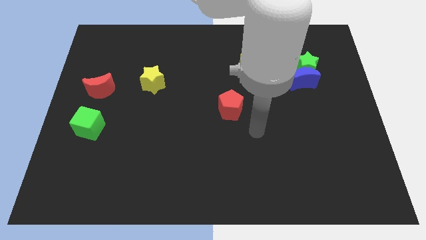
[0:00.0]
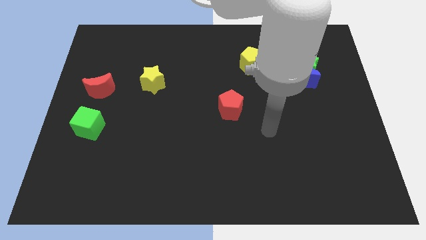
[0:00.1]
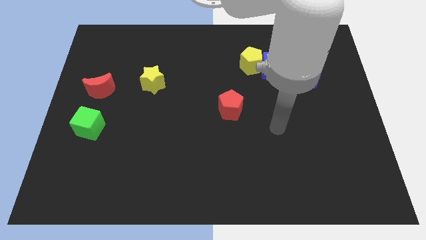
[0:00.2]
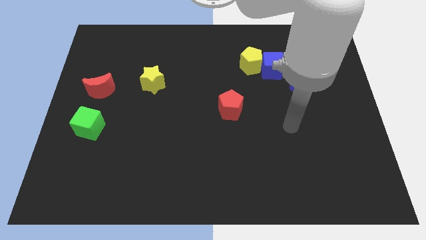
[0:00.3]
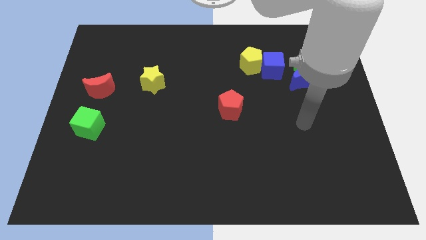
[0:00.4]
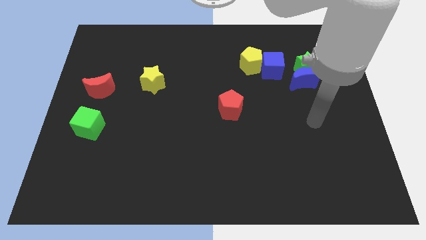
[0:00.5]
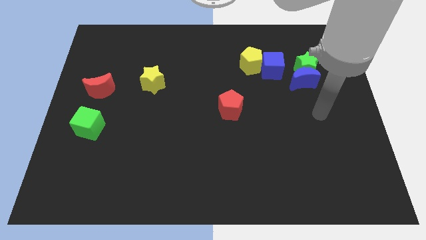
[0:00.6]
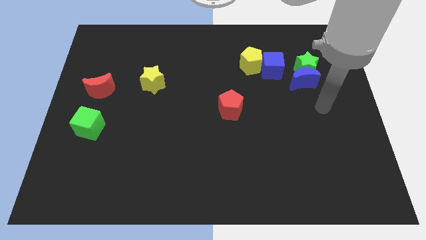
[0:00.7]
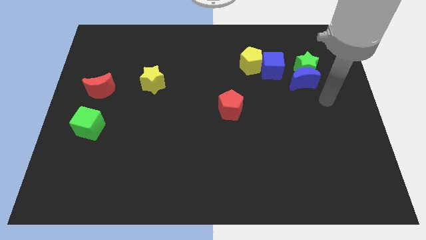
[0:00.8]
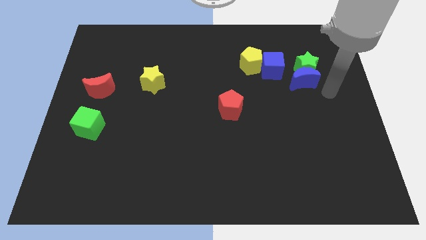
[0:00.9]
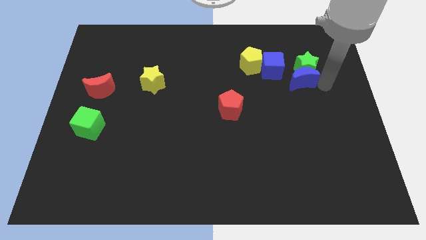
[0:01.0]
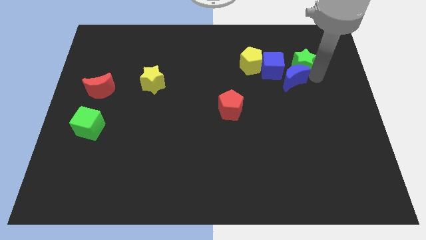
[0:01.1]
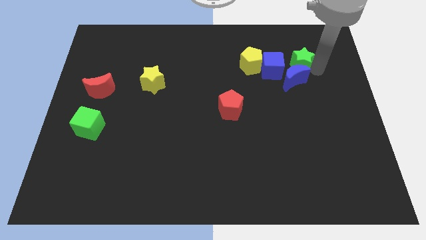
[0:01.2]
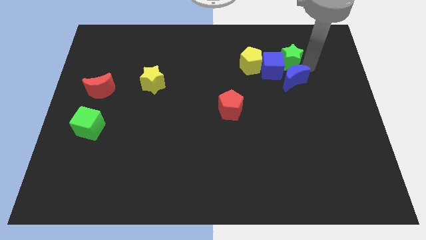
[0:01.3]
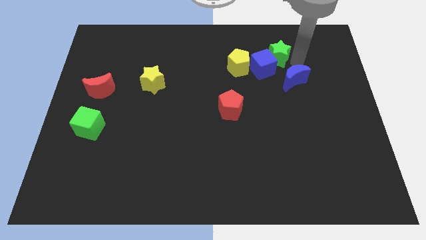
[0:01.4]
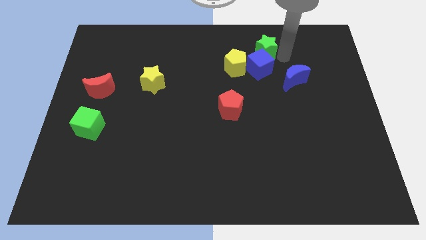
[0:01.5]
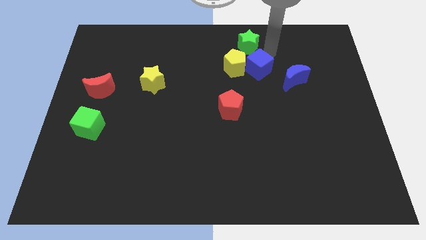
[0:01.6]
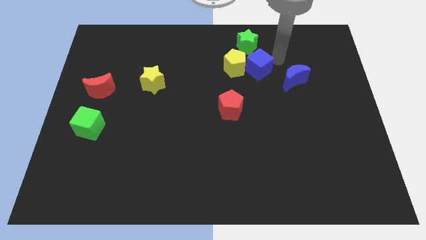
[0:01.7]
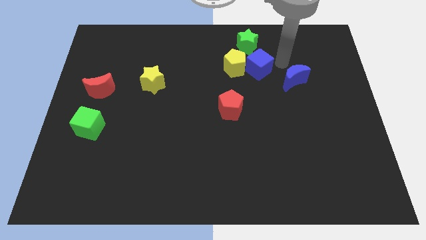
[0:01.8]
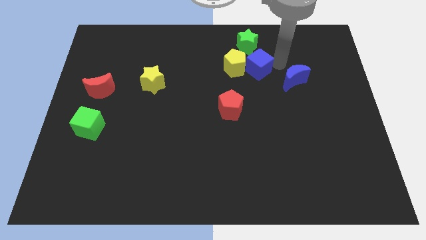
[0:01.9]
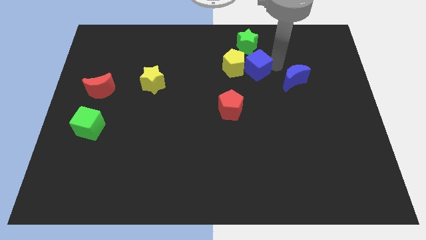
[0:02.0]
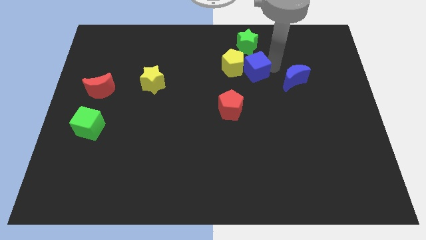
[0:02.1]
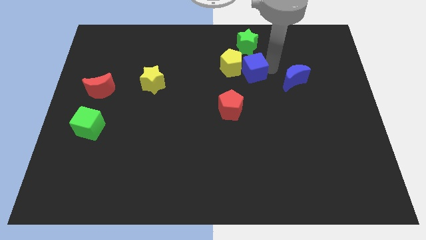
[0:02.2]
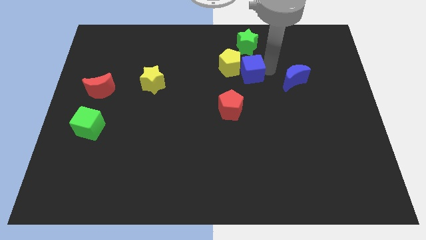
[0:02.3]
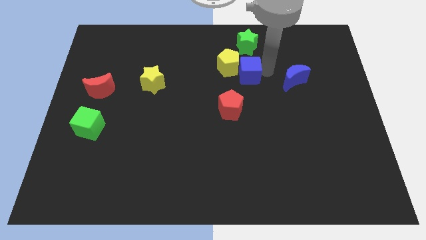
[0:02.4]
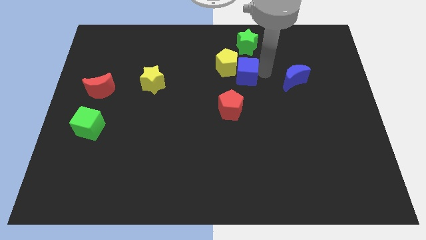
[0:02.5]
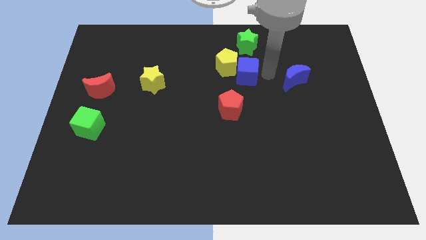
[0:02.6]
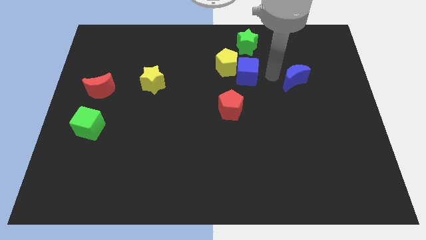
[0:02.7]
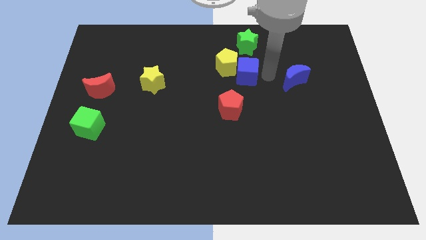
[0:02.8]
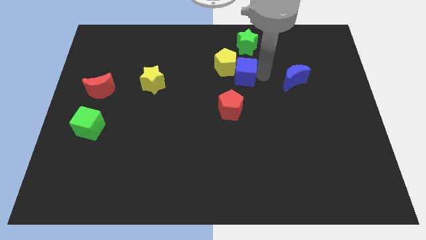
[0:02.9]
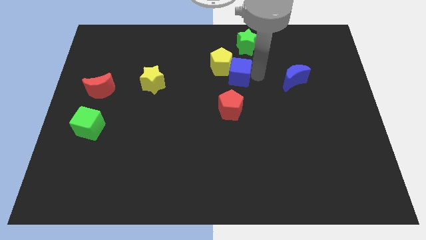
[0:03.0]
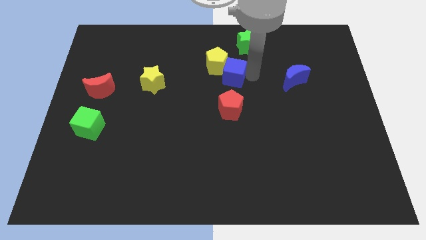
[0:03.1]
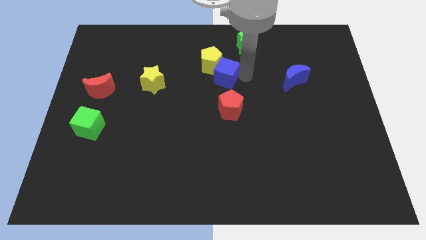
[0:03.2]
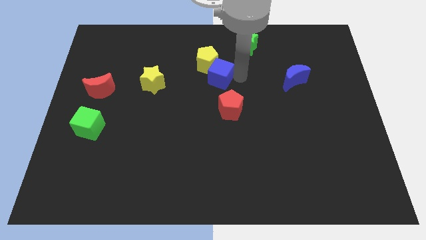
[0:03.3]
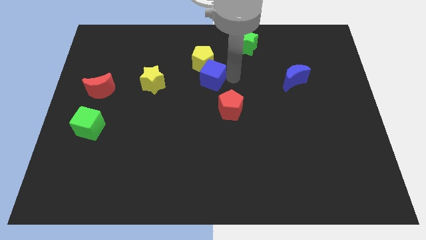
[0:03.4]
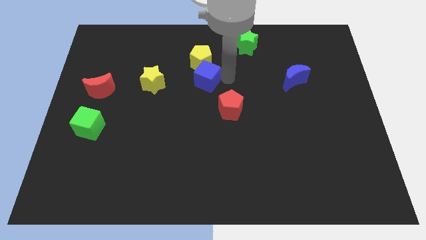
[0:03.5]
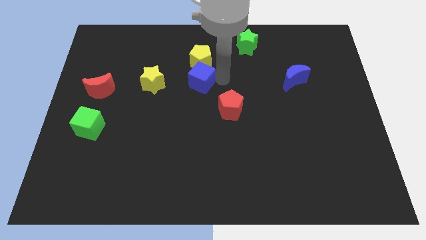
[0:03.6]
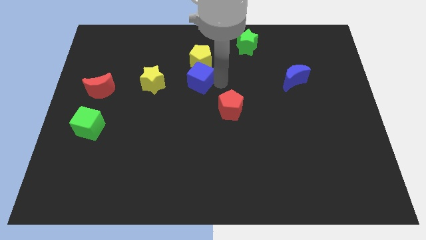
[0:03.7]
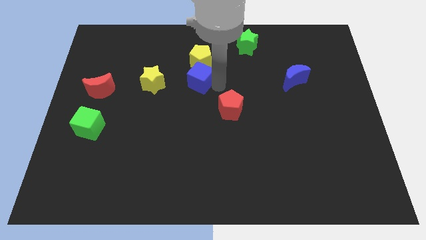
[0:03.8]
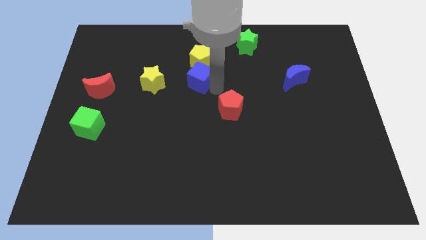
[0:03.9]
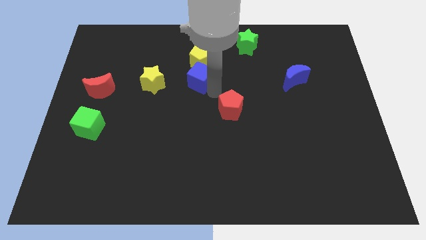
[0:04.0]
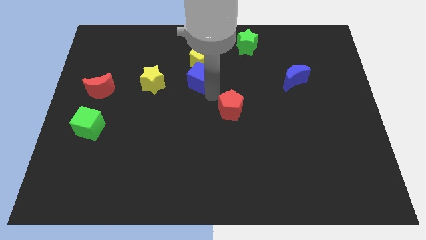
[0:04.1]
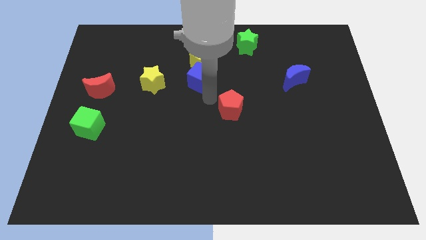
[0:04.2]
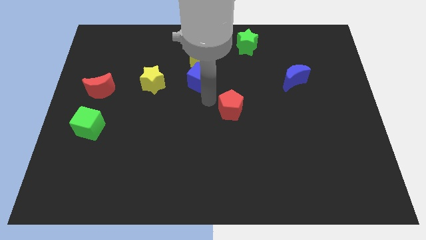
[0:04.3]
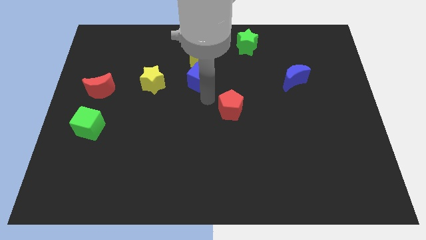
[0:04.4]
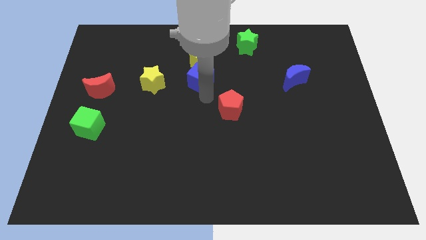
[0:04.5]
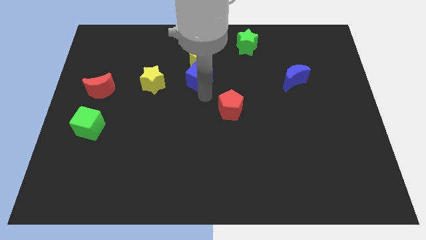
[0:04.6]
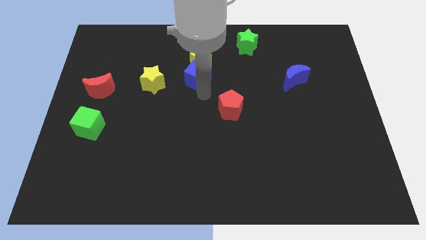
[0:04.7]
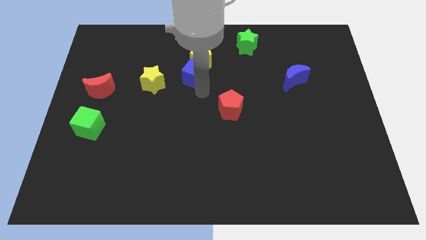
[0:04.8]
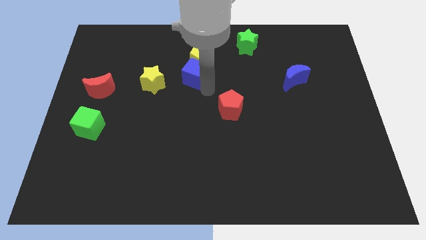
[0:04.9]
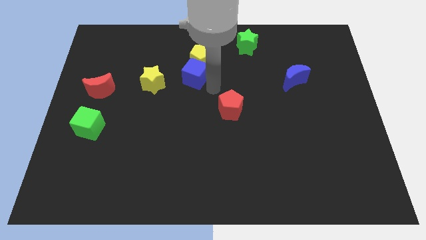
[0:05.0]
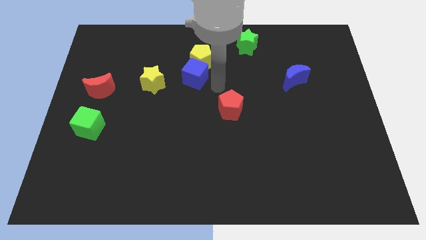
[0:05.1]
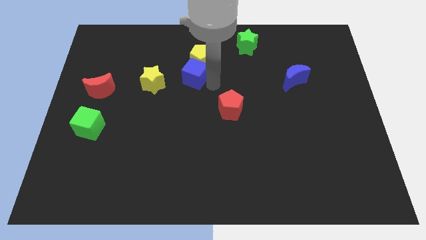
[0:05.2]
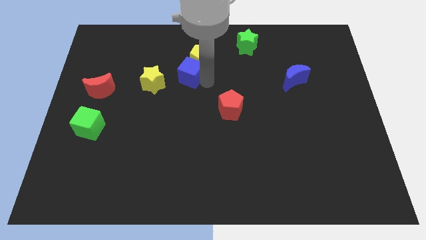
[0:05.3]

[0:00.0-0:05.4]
put the blue cube to the top right side of the yellow star

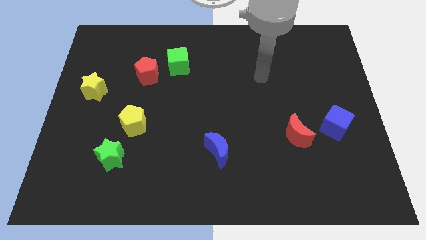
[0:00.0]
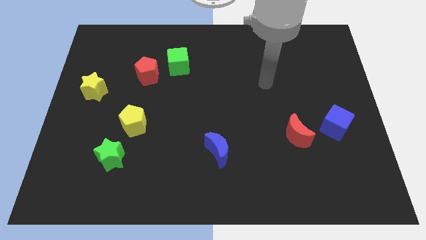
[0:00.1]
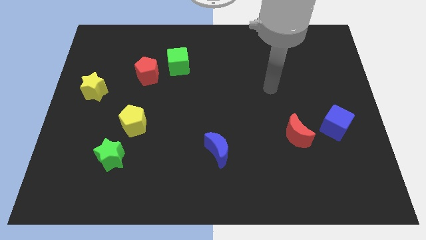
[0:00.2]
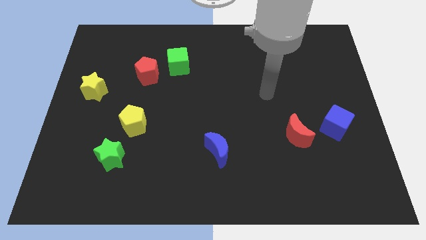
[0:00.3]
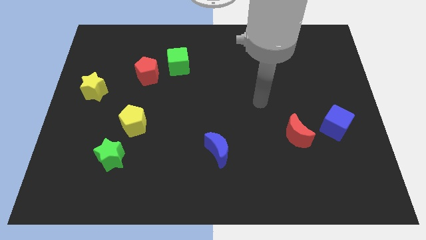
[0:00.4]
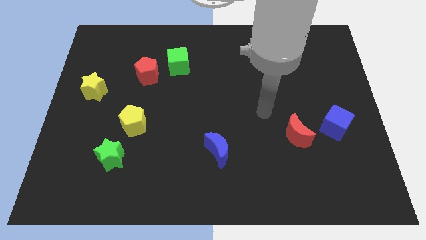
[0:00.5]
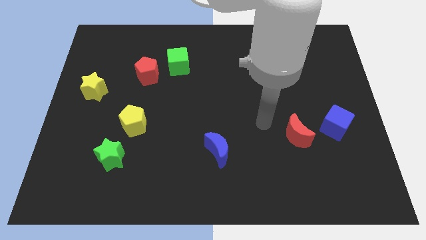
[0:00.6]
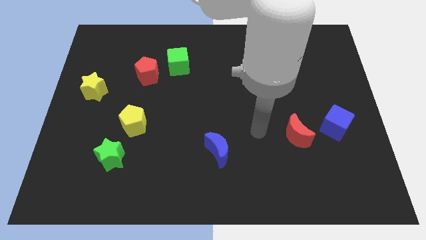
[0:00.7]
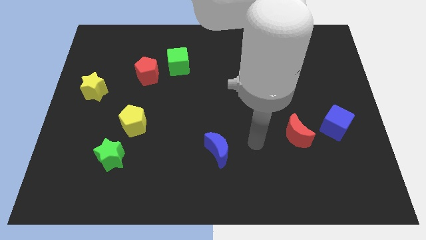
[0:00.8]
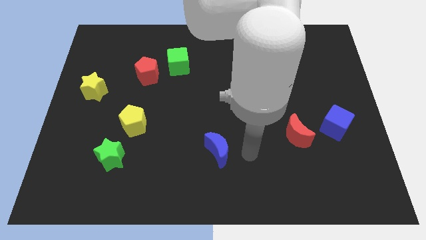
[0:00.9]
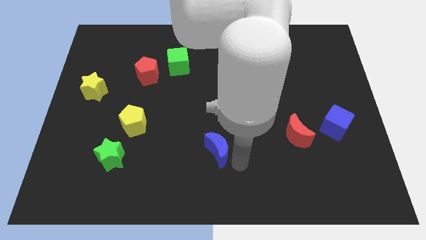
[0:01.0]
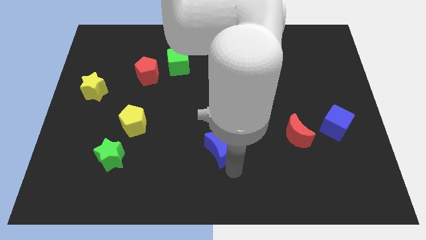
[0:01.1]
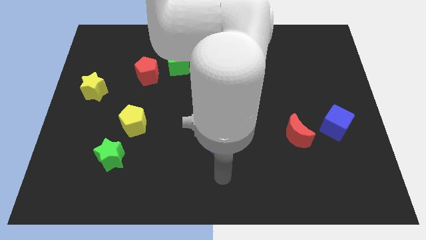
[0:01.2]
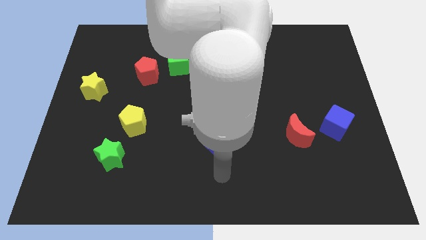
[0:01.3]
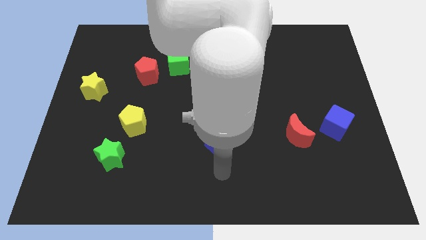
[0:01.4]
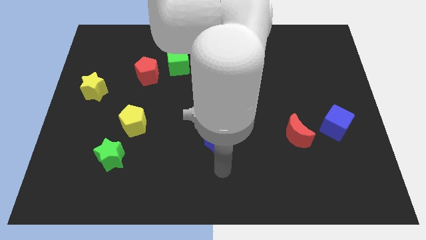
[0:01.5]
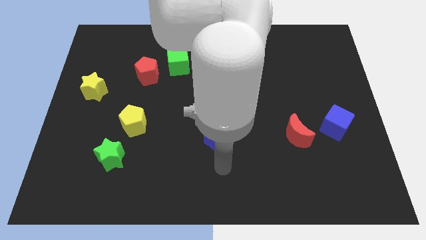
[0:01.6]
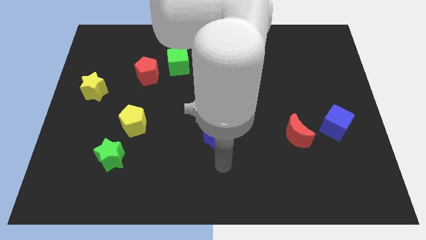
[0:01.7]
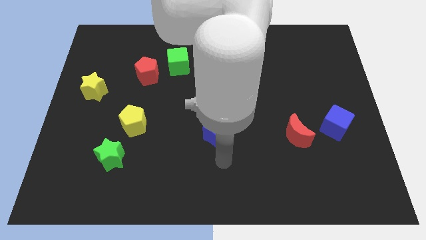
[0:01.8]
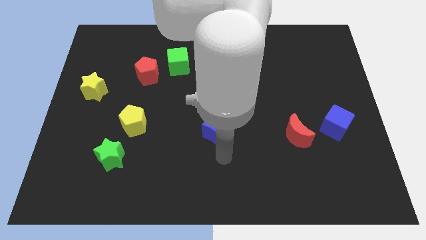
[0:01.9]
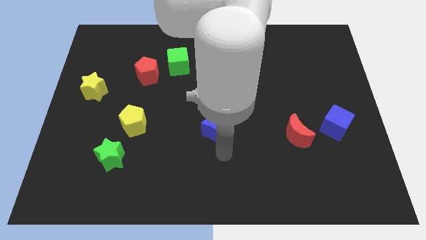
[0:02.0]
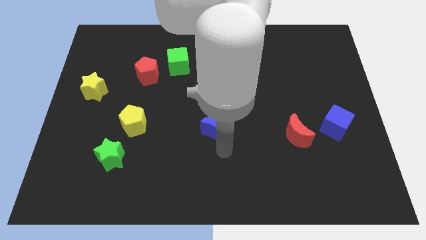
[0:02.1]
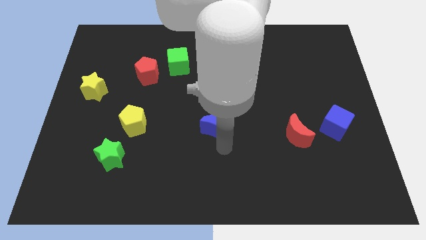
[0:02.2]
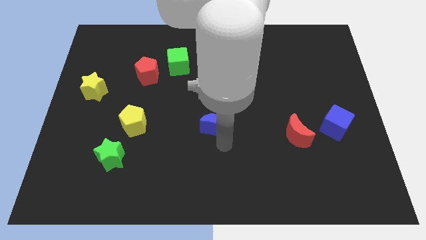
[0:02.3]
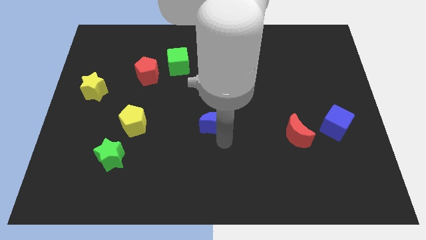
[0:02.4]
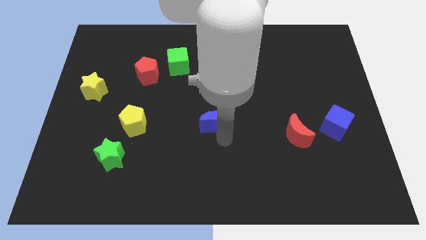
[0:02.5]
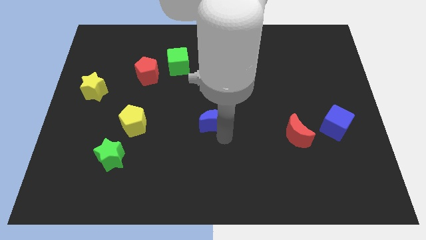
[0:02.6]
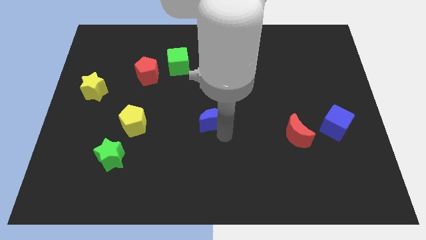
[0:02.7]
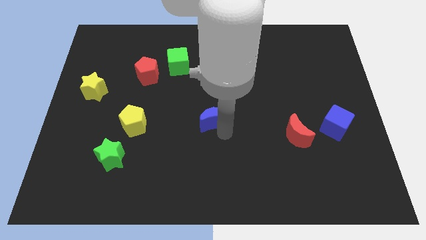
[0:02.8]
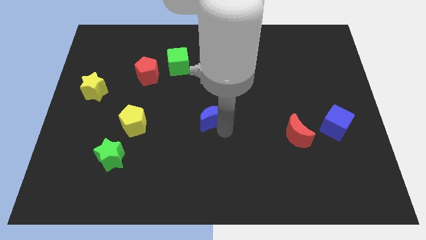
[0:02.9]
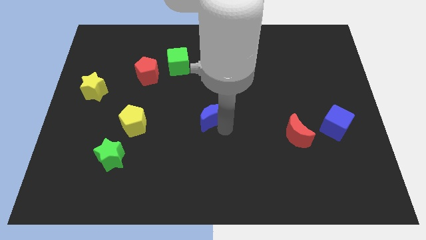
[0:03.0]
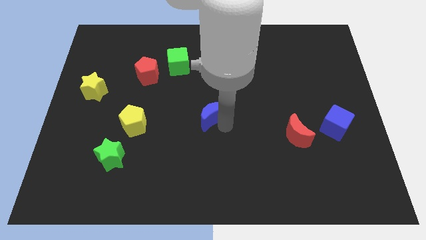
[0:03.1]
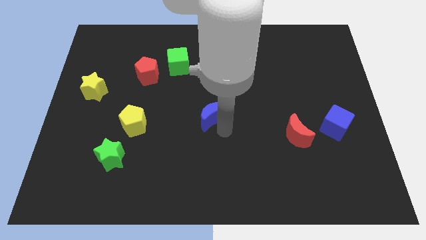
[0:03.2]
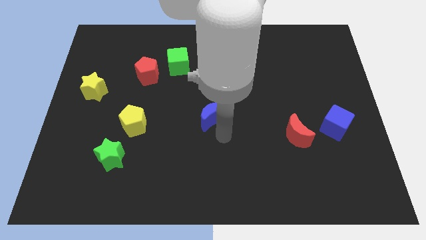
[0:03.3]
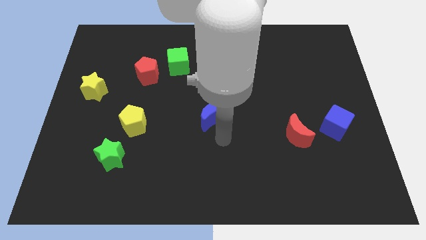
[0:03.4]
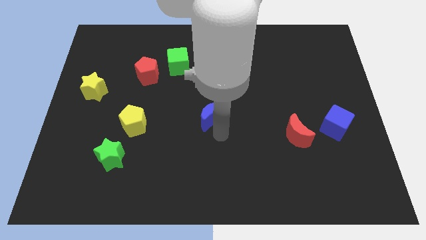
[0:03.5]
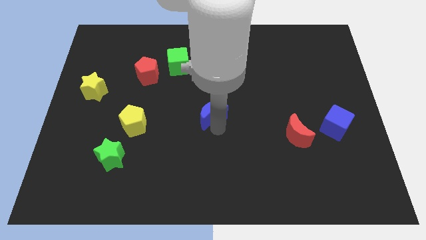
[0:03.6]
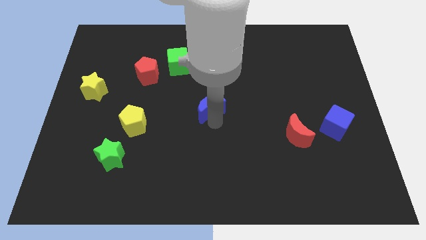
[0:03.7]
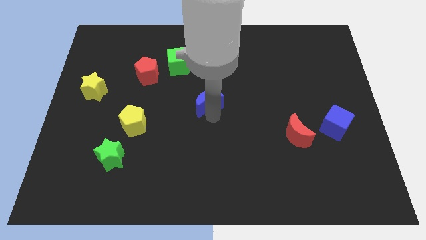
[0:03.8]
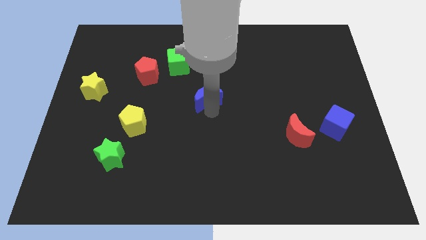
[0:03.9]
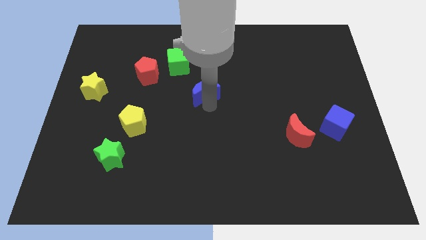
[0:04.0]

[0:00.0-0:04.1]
move the blue moon to the bottom right side of the green cube
